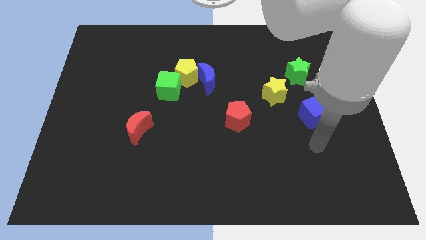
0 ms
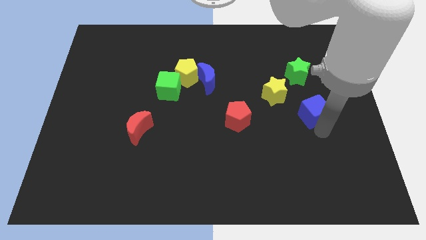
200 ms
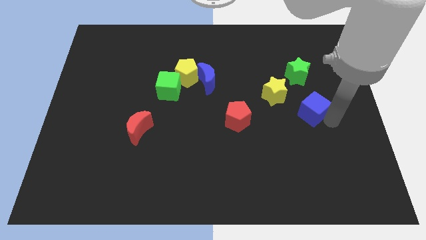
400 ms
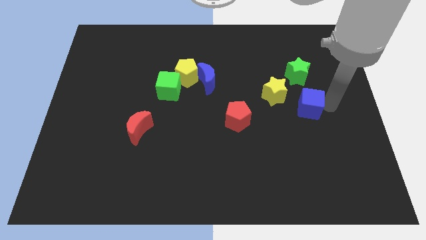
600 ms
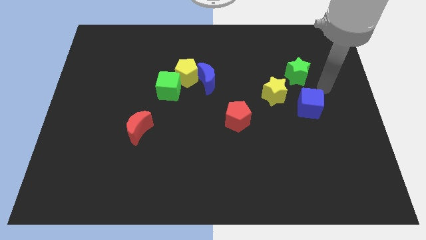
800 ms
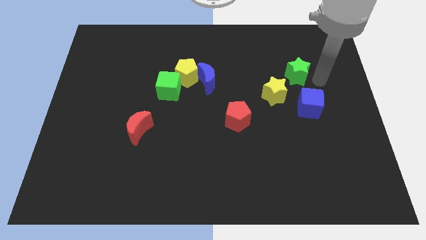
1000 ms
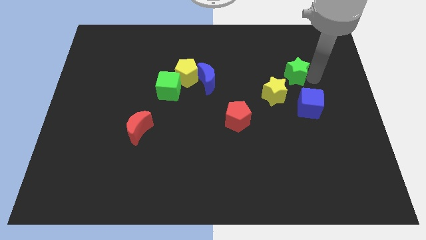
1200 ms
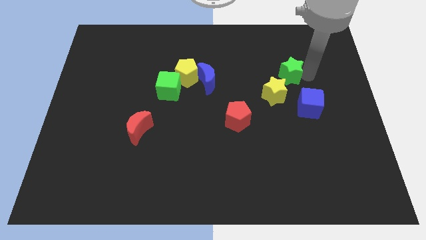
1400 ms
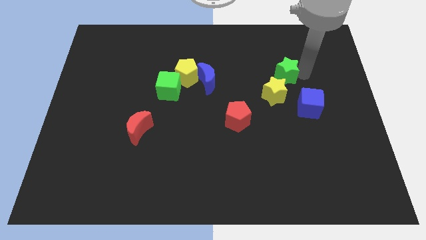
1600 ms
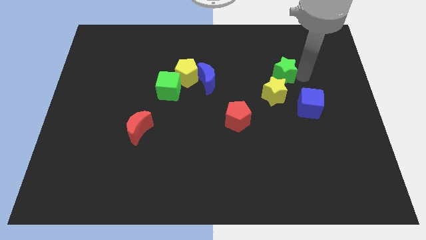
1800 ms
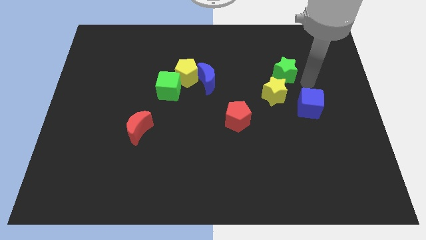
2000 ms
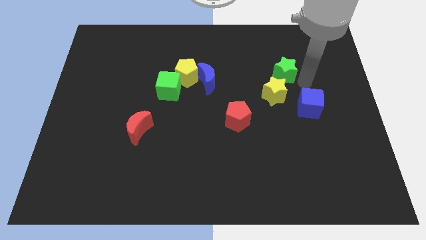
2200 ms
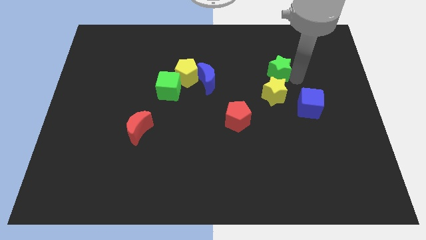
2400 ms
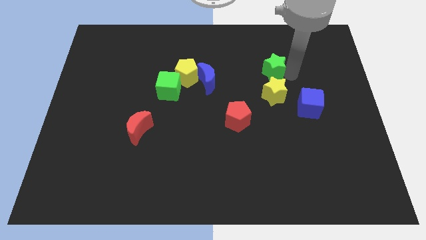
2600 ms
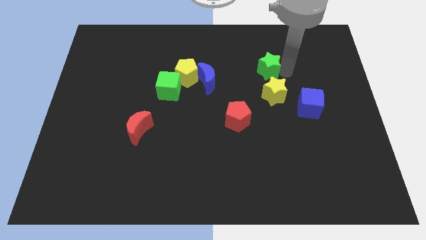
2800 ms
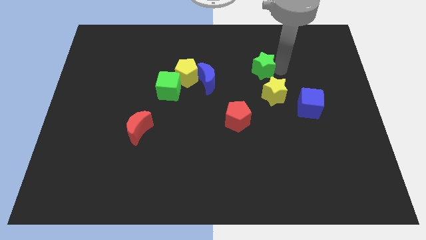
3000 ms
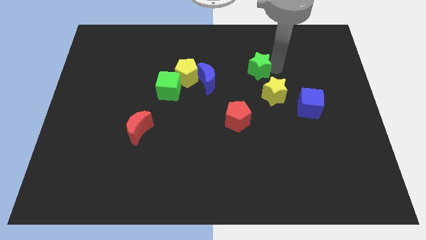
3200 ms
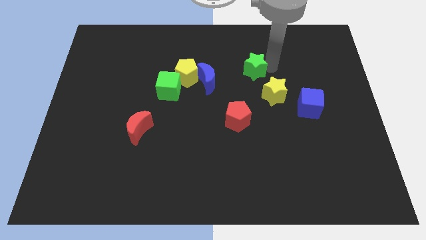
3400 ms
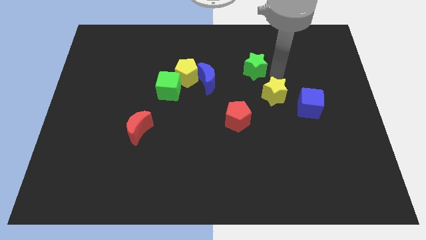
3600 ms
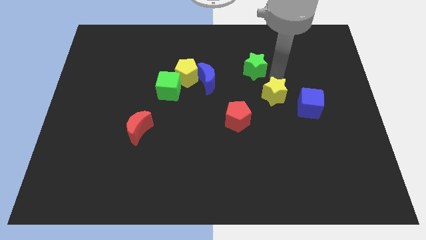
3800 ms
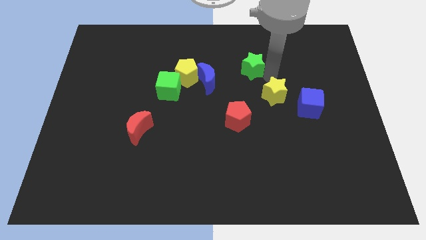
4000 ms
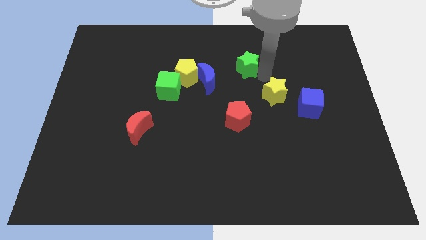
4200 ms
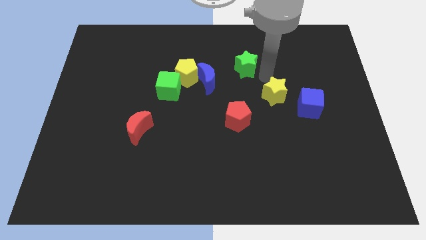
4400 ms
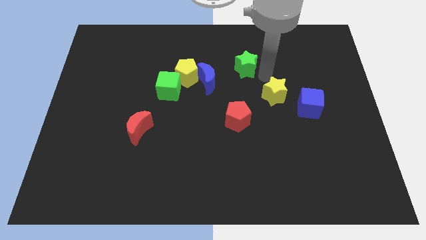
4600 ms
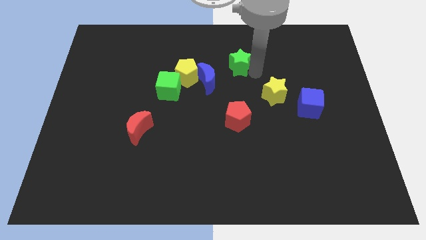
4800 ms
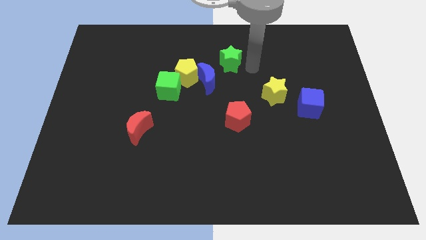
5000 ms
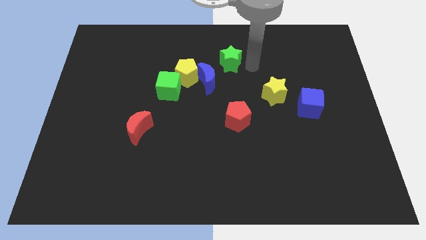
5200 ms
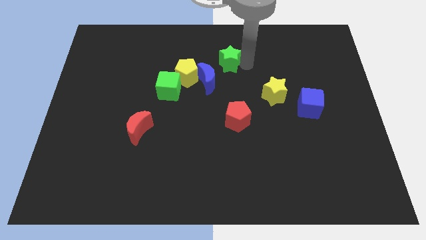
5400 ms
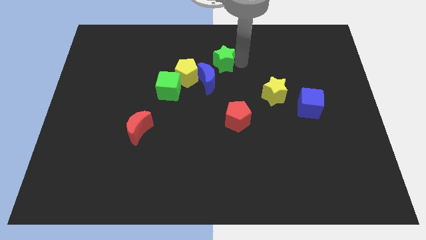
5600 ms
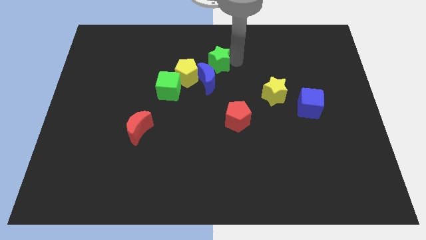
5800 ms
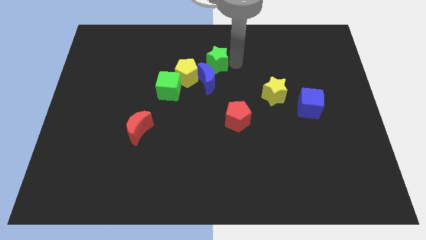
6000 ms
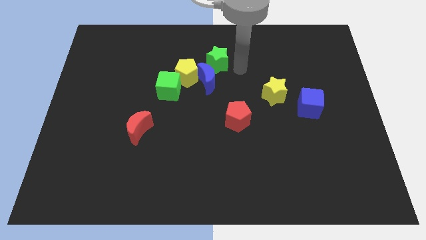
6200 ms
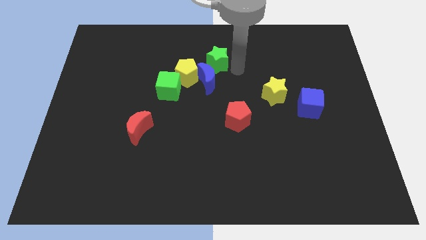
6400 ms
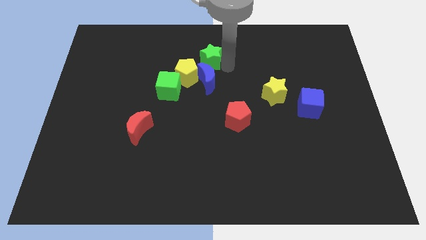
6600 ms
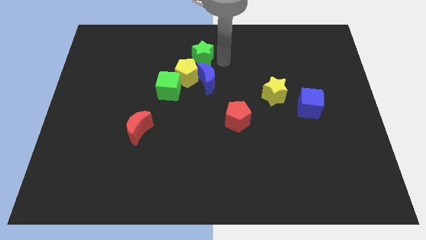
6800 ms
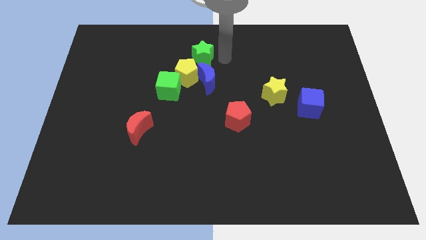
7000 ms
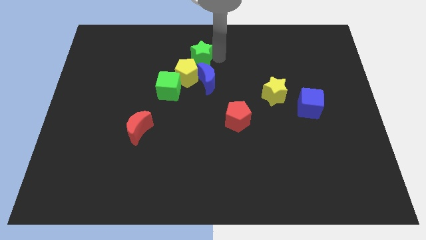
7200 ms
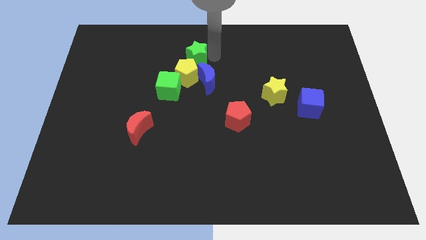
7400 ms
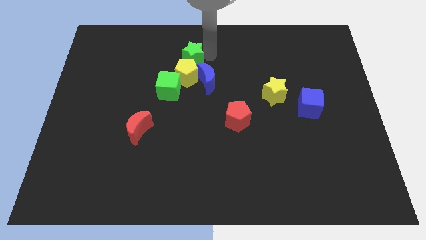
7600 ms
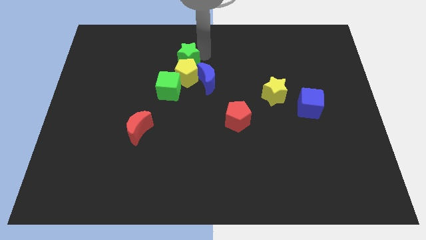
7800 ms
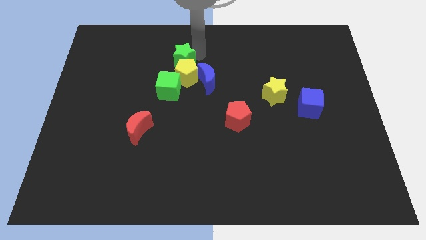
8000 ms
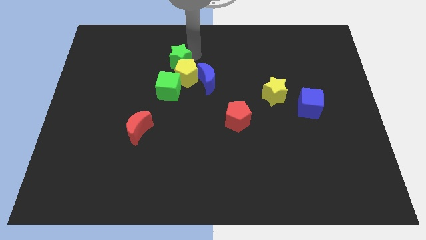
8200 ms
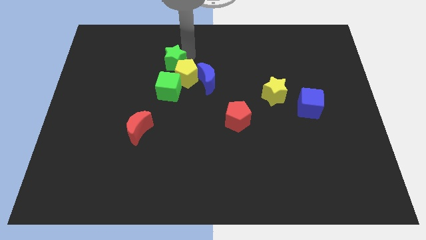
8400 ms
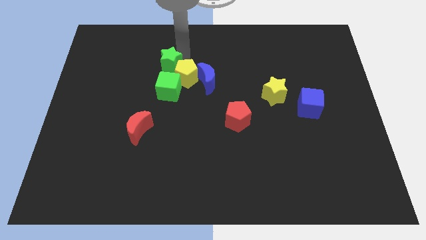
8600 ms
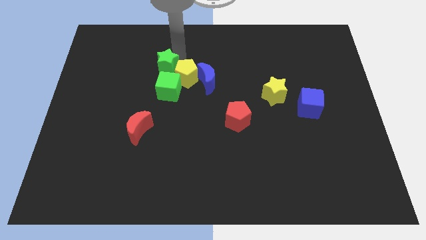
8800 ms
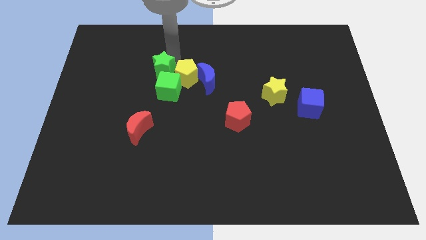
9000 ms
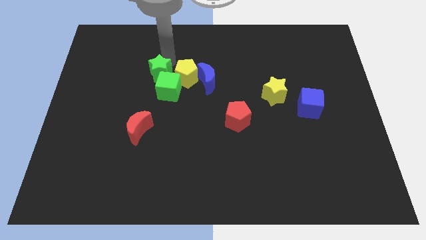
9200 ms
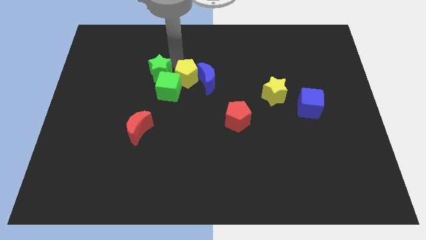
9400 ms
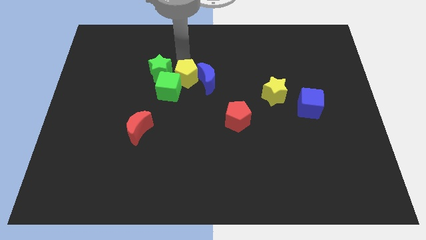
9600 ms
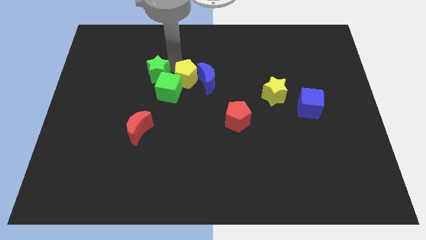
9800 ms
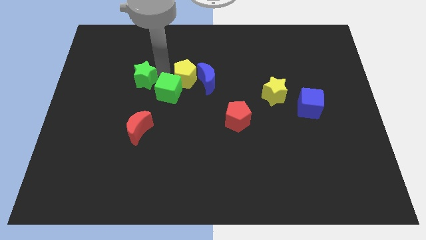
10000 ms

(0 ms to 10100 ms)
move the green star to the left side of the green cube

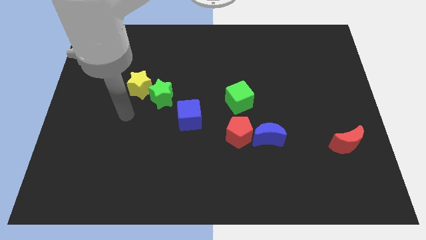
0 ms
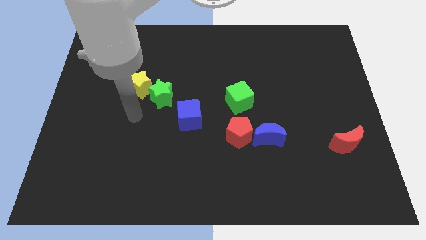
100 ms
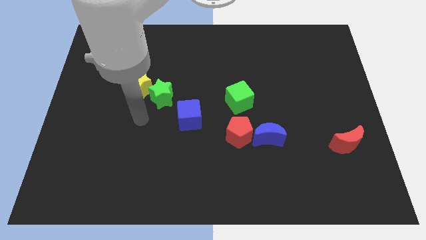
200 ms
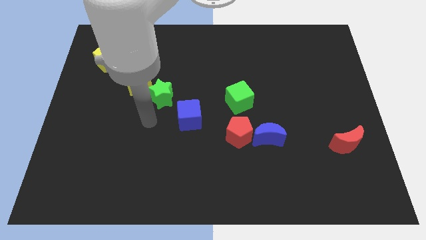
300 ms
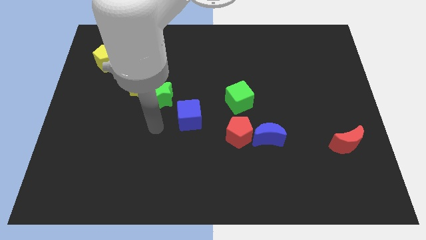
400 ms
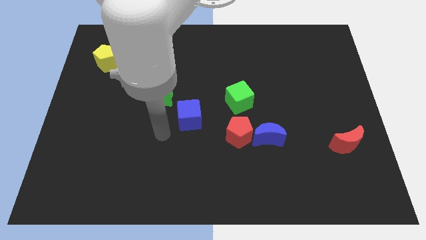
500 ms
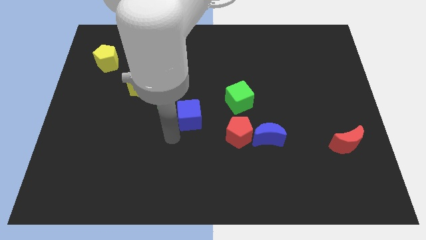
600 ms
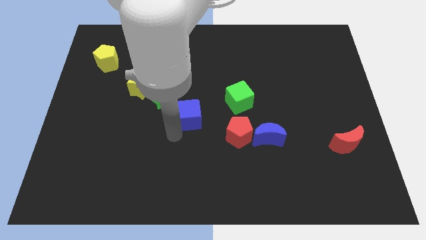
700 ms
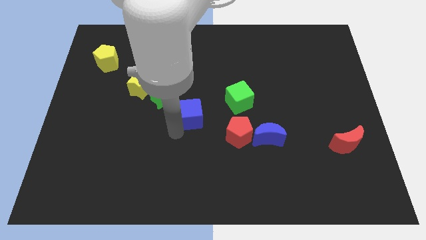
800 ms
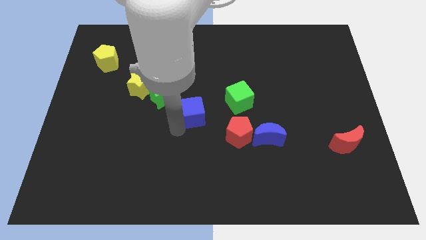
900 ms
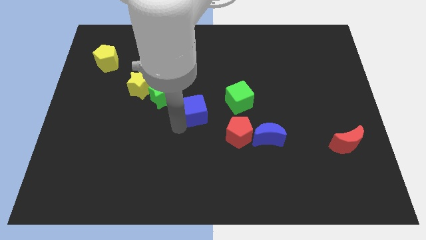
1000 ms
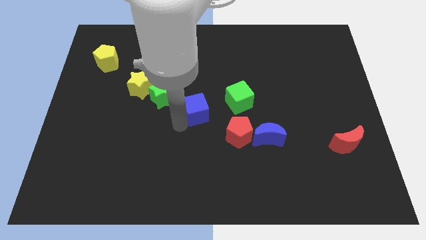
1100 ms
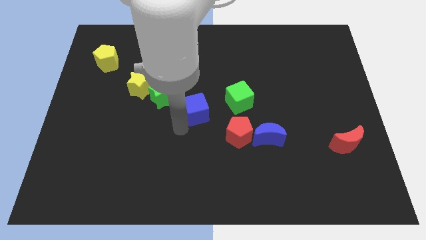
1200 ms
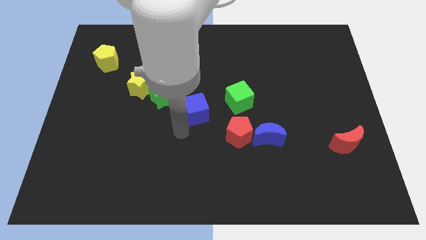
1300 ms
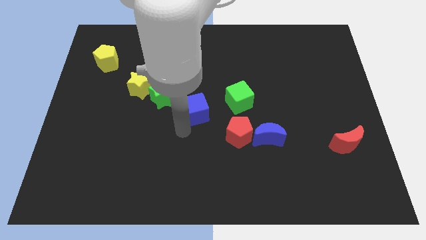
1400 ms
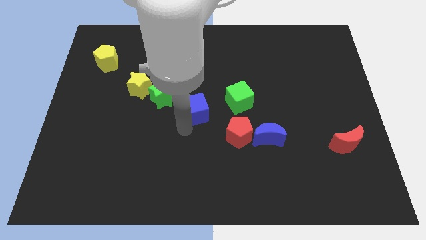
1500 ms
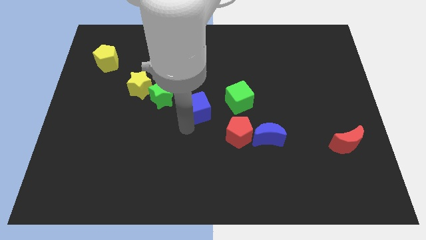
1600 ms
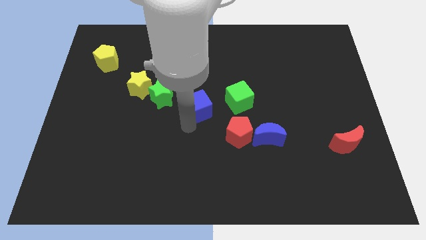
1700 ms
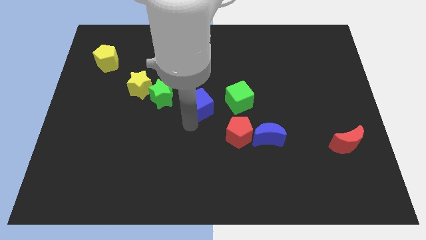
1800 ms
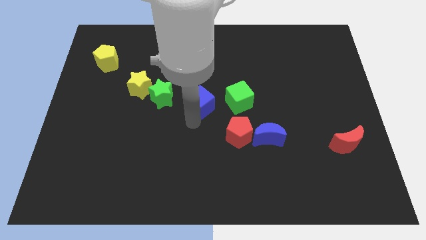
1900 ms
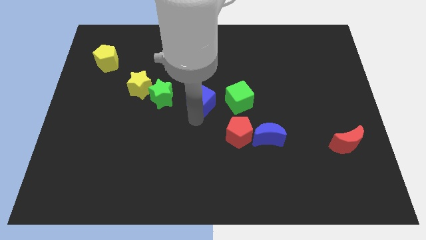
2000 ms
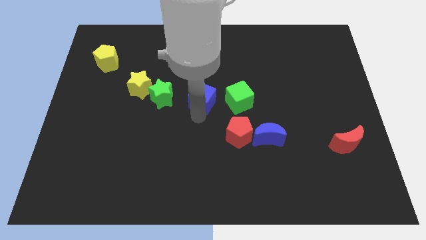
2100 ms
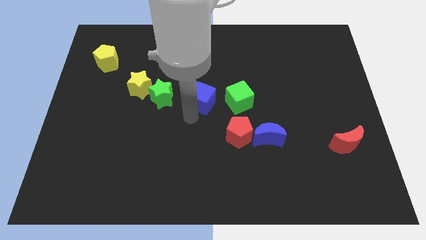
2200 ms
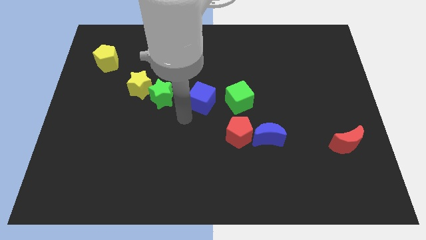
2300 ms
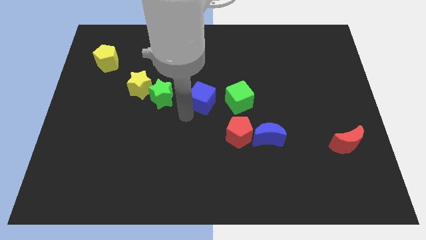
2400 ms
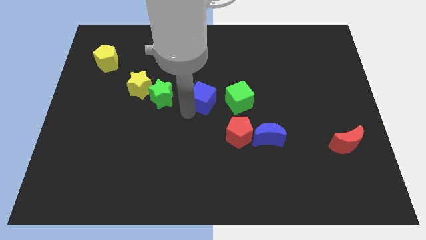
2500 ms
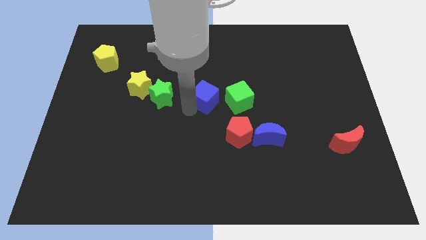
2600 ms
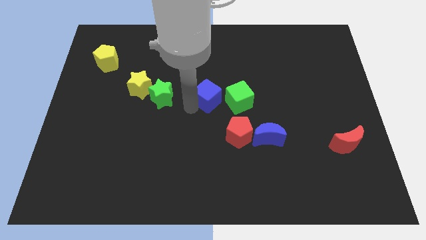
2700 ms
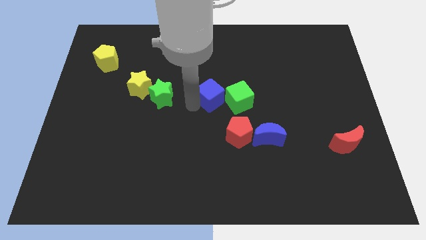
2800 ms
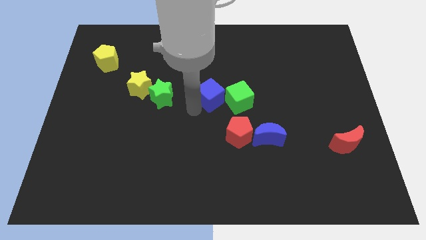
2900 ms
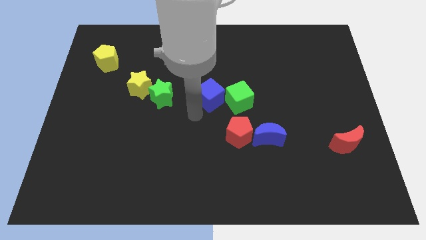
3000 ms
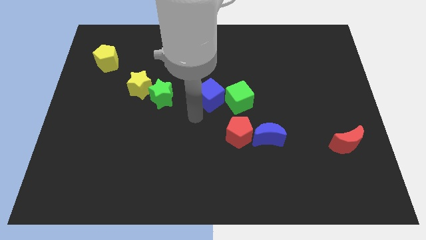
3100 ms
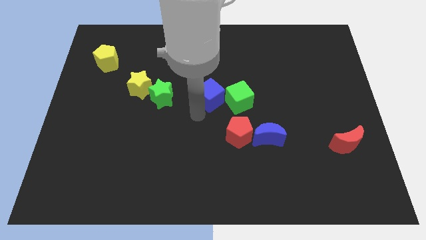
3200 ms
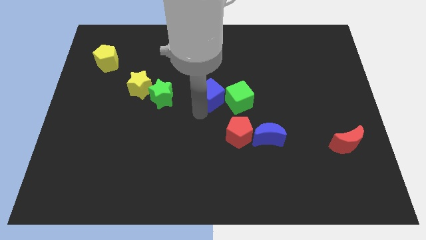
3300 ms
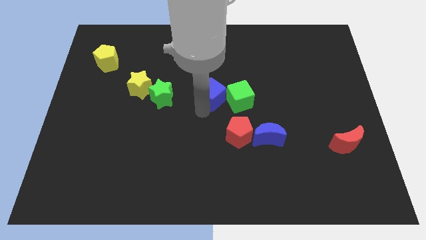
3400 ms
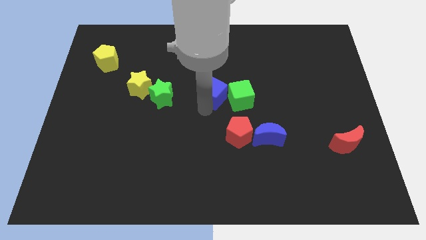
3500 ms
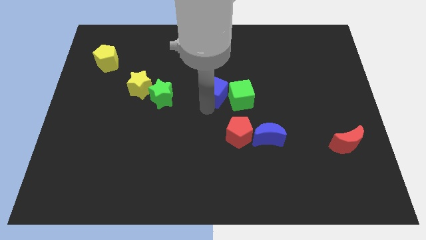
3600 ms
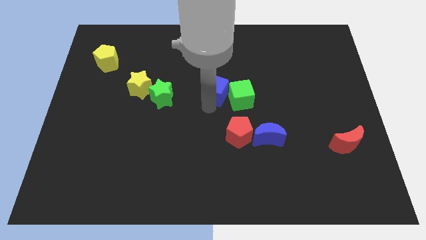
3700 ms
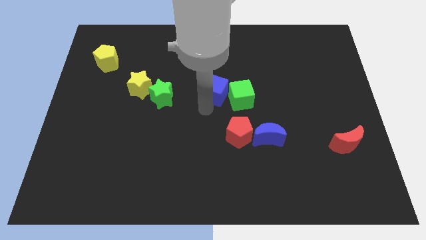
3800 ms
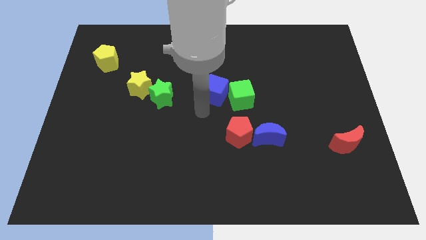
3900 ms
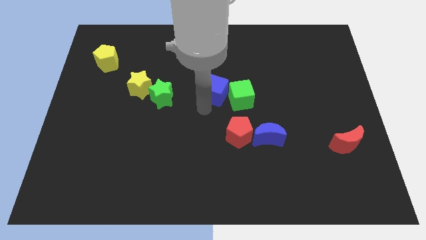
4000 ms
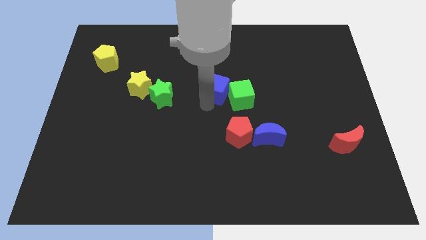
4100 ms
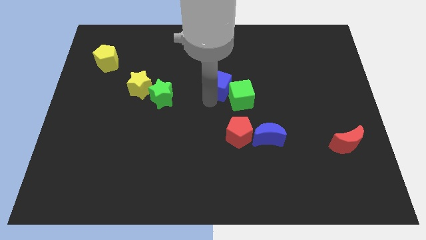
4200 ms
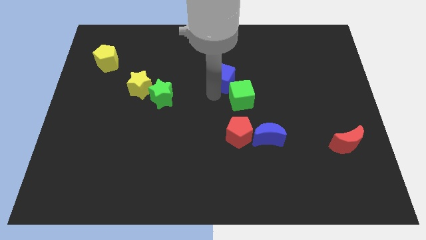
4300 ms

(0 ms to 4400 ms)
put the blue cube to the top side of the green cube
